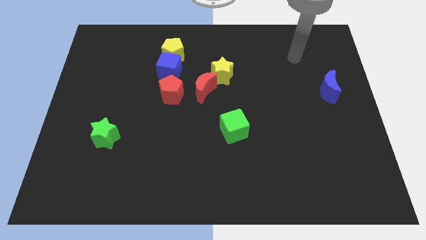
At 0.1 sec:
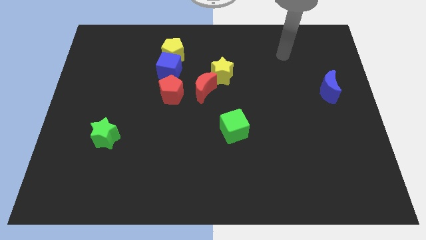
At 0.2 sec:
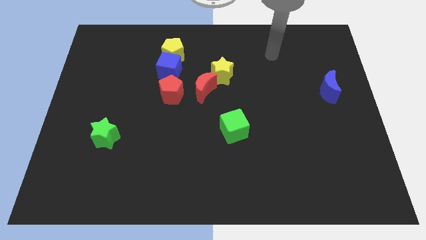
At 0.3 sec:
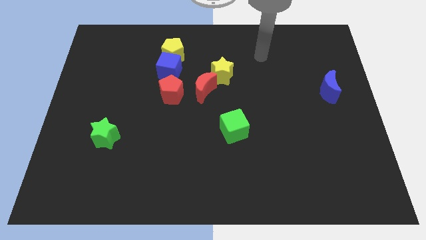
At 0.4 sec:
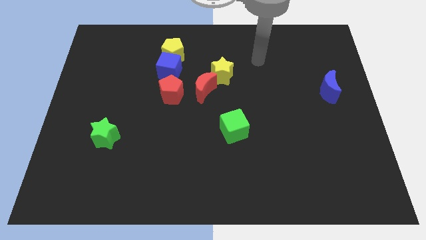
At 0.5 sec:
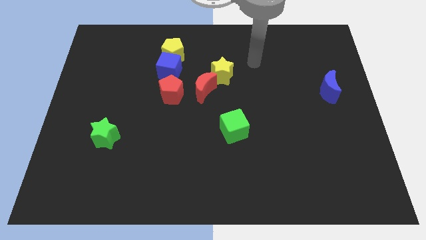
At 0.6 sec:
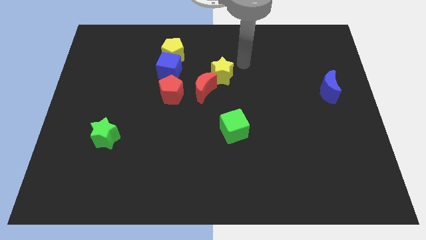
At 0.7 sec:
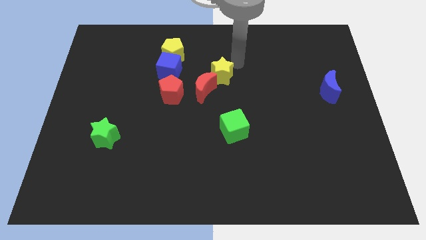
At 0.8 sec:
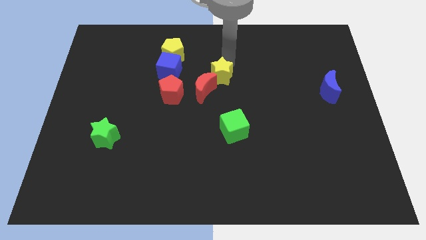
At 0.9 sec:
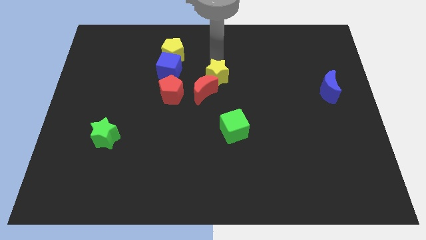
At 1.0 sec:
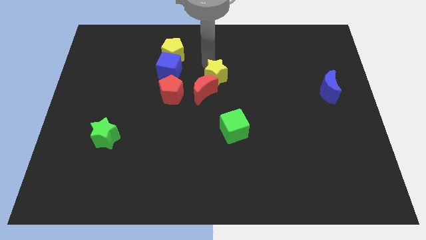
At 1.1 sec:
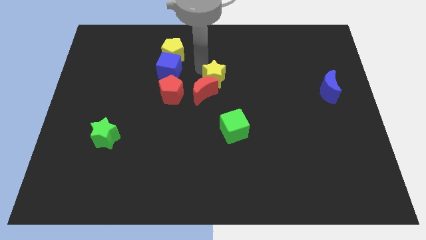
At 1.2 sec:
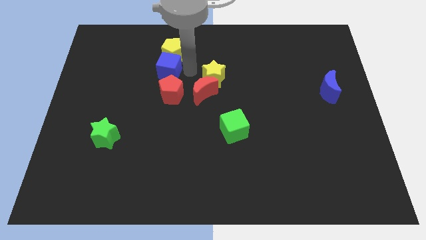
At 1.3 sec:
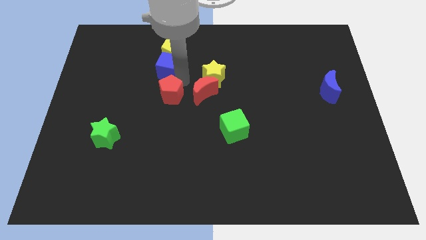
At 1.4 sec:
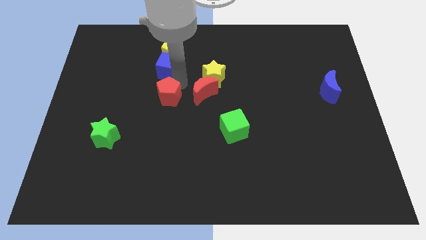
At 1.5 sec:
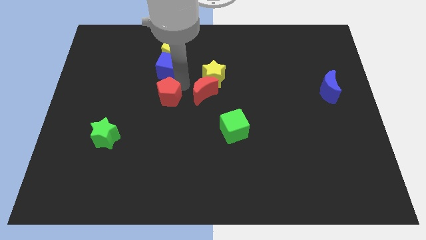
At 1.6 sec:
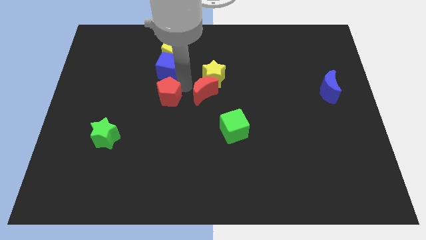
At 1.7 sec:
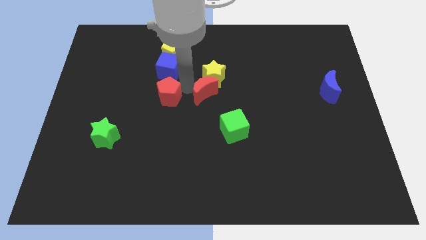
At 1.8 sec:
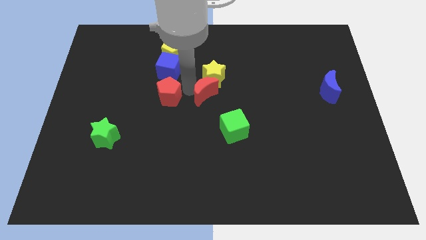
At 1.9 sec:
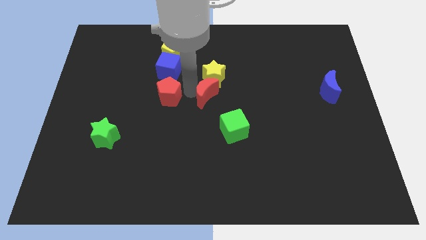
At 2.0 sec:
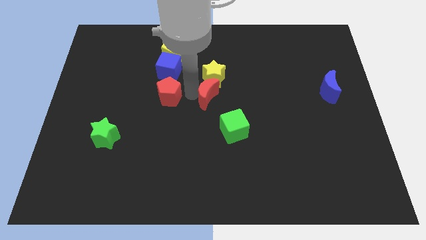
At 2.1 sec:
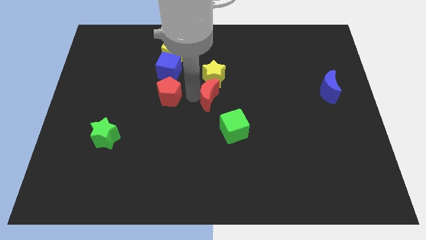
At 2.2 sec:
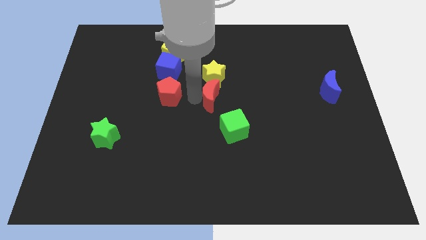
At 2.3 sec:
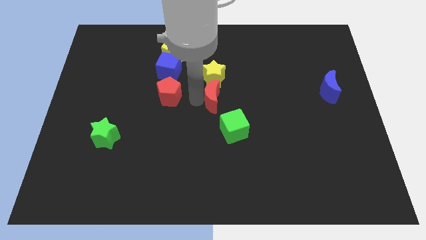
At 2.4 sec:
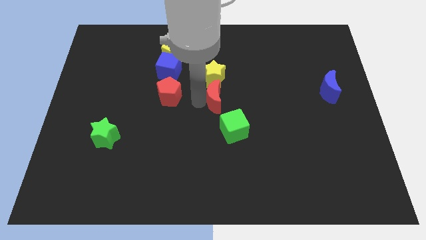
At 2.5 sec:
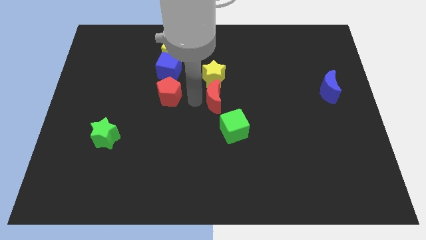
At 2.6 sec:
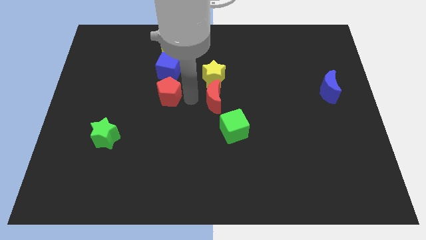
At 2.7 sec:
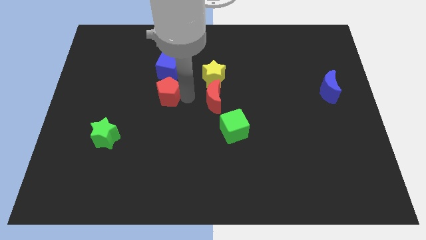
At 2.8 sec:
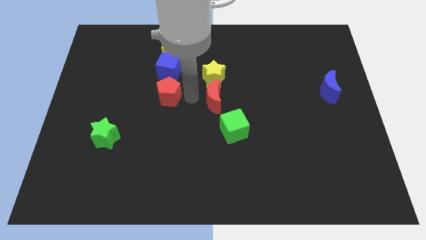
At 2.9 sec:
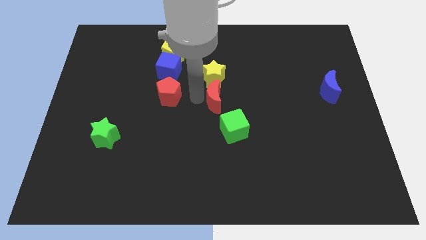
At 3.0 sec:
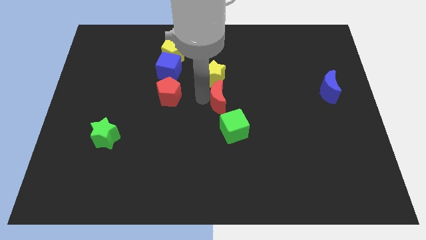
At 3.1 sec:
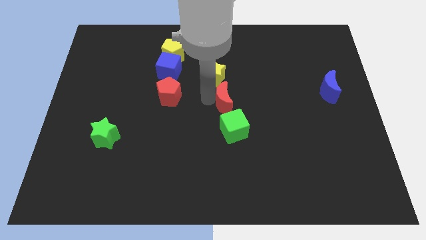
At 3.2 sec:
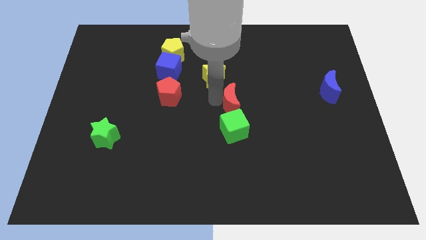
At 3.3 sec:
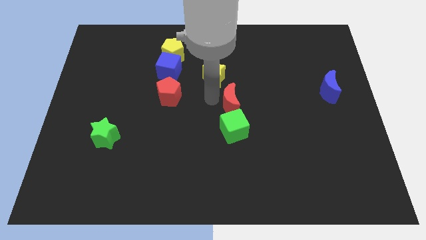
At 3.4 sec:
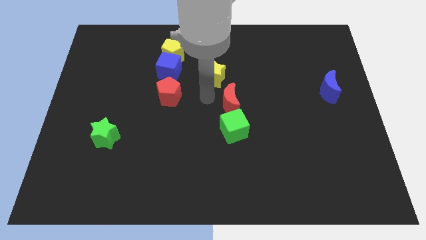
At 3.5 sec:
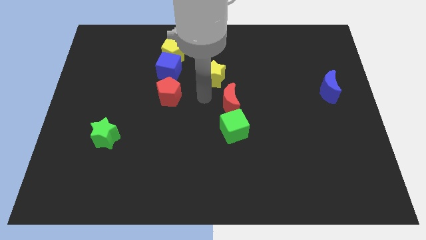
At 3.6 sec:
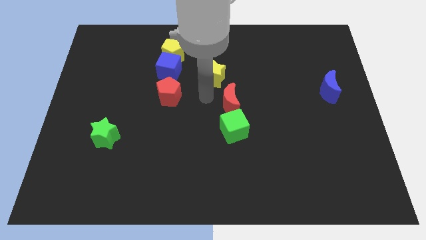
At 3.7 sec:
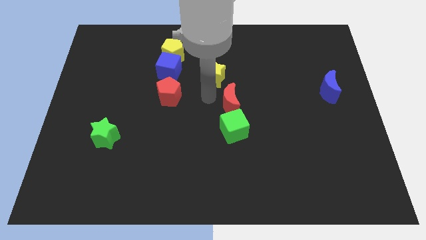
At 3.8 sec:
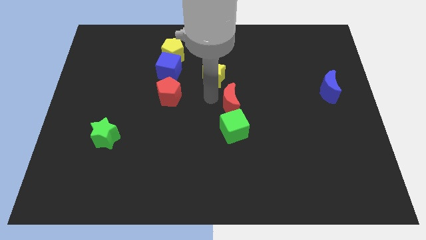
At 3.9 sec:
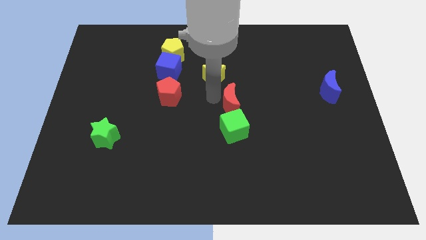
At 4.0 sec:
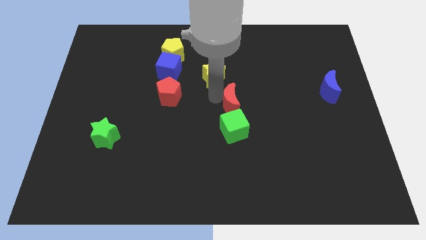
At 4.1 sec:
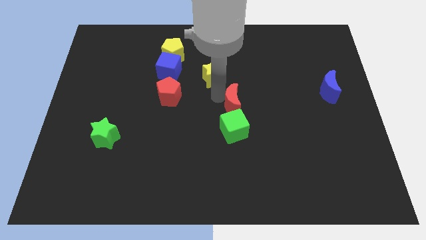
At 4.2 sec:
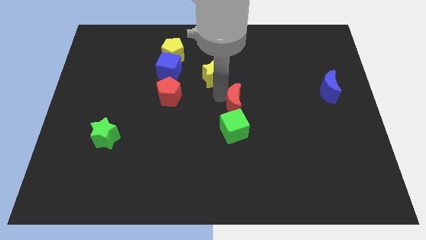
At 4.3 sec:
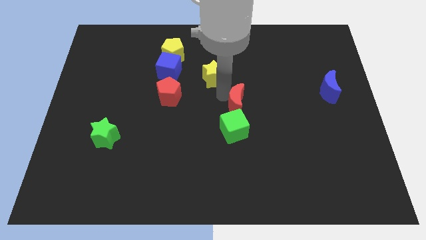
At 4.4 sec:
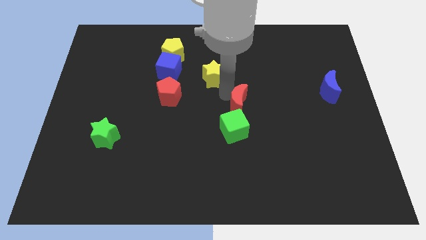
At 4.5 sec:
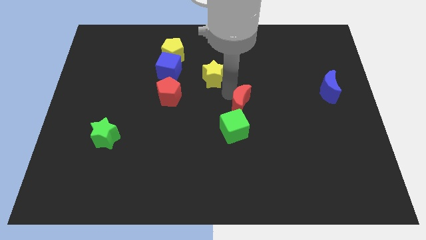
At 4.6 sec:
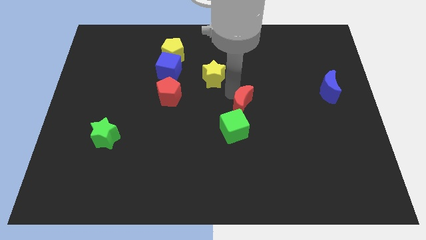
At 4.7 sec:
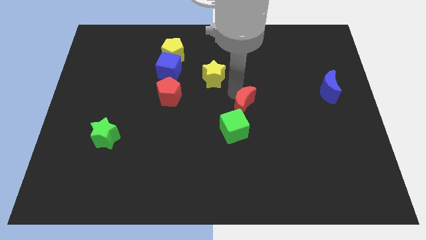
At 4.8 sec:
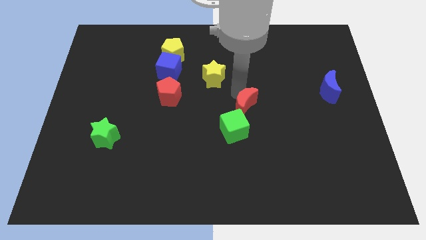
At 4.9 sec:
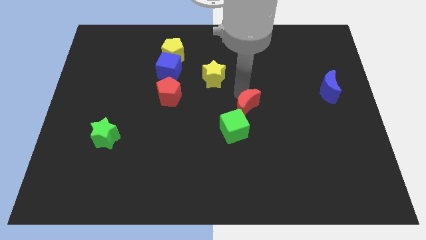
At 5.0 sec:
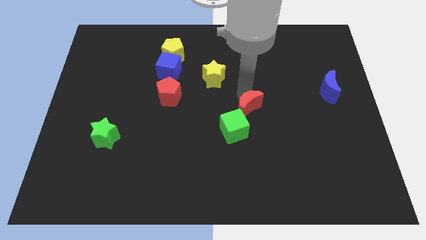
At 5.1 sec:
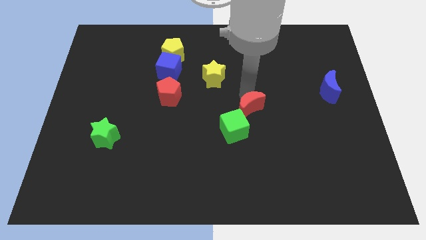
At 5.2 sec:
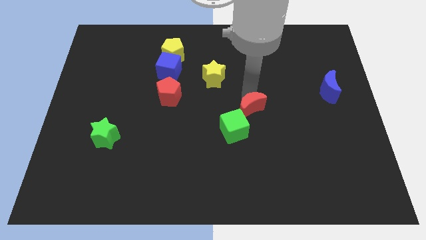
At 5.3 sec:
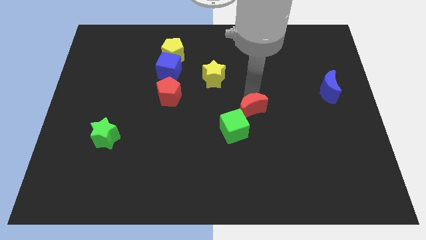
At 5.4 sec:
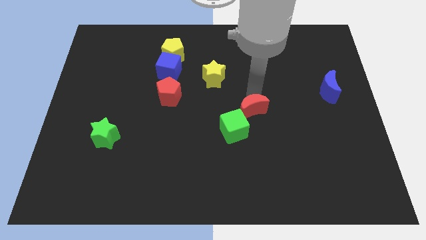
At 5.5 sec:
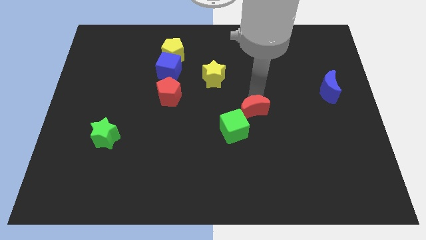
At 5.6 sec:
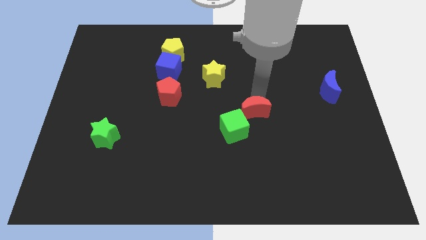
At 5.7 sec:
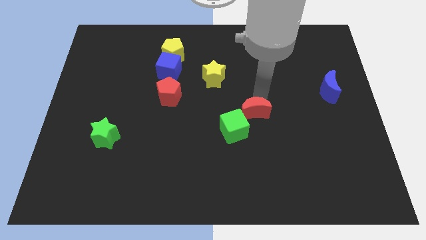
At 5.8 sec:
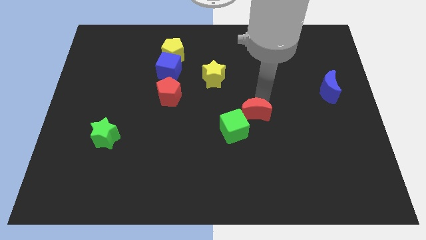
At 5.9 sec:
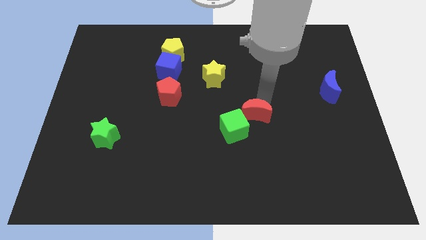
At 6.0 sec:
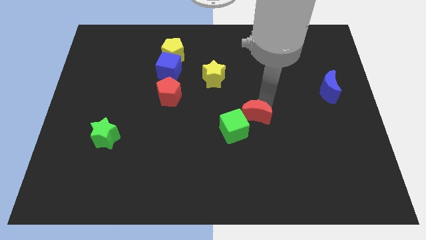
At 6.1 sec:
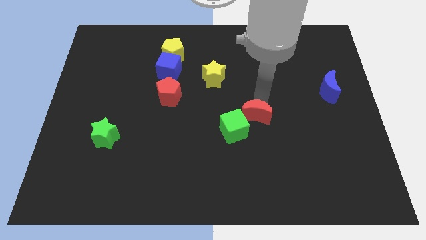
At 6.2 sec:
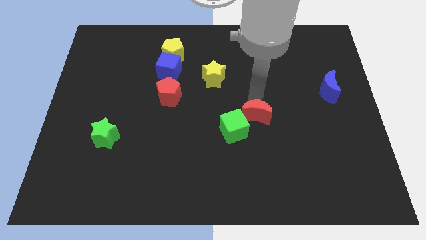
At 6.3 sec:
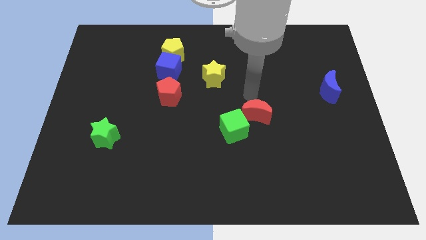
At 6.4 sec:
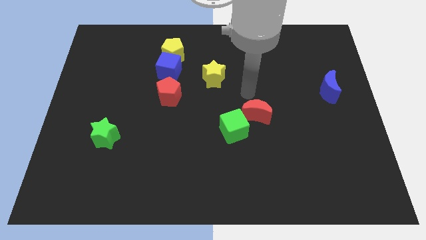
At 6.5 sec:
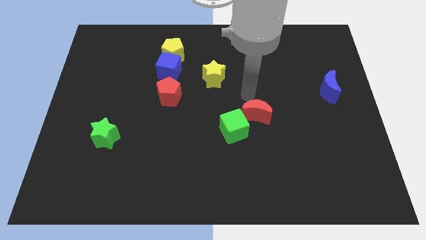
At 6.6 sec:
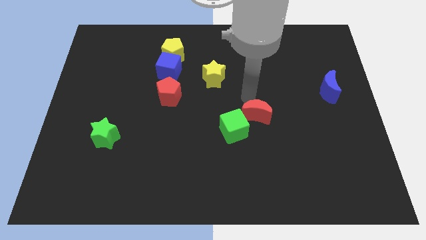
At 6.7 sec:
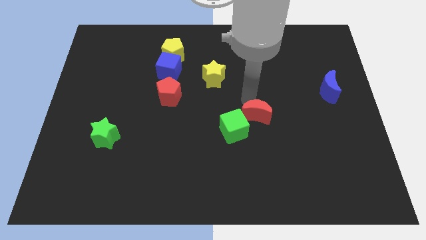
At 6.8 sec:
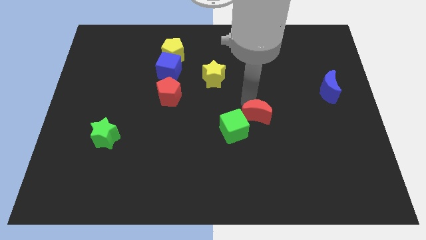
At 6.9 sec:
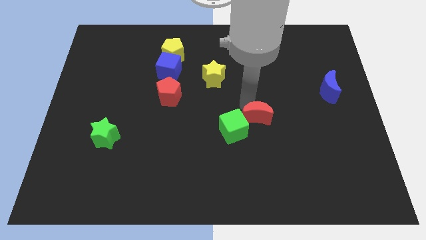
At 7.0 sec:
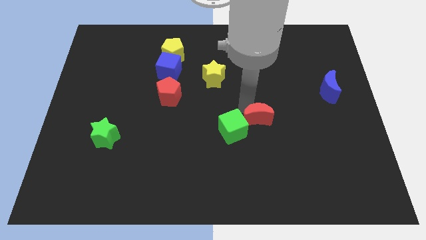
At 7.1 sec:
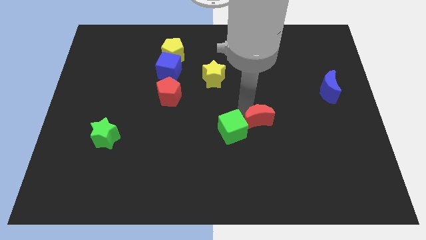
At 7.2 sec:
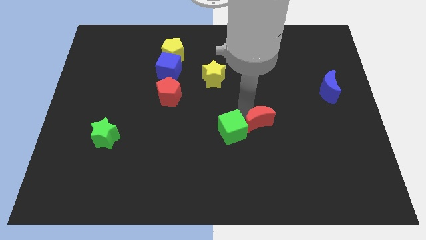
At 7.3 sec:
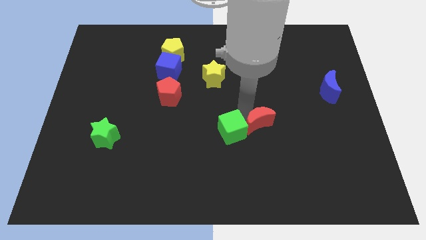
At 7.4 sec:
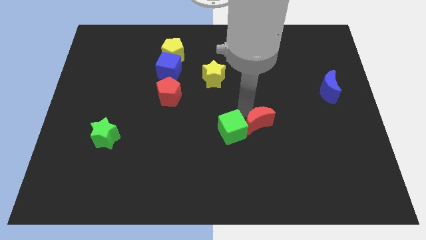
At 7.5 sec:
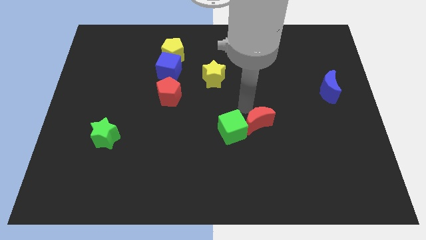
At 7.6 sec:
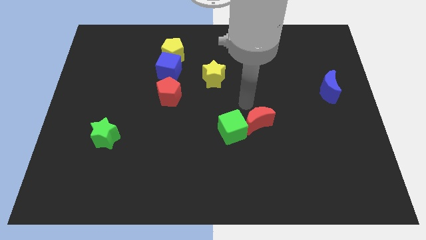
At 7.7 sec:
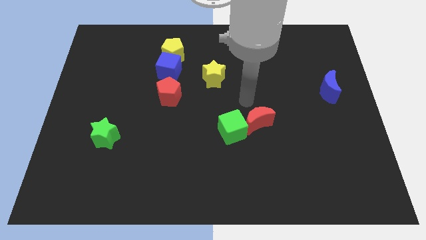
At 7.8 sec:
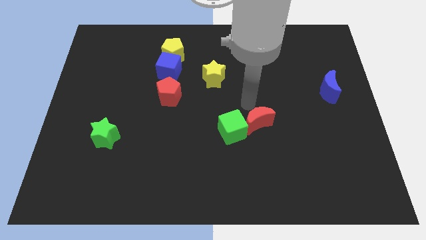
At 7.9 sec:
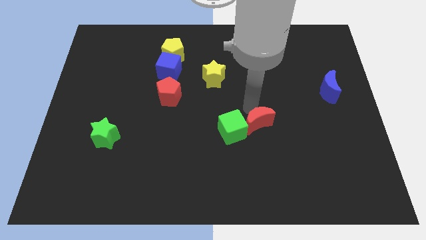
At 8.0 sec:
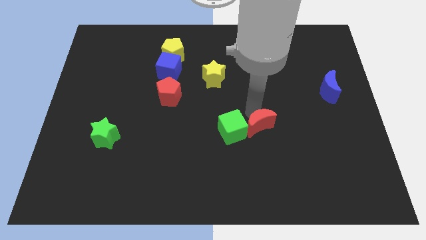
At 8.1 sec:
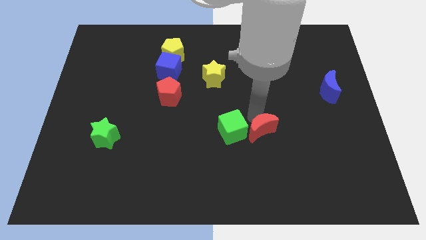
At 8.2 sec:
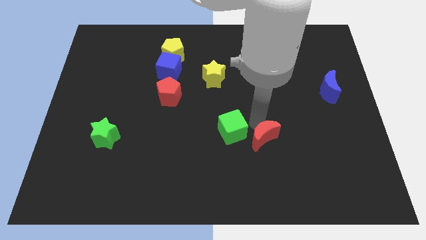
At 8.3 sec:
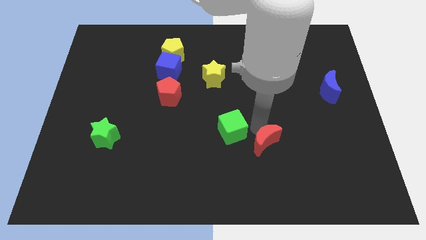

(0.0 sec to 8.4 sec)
slide the red moon down and right diagonally
